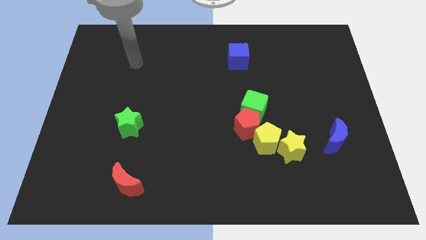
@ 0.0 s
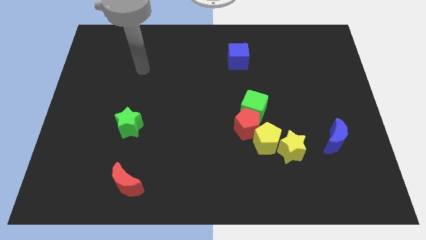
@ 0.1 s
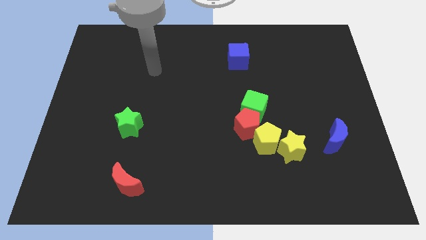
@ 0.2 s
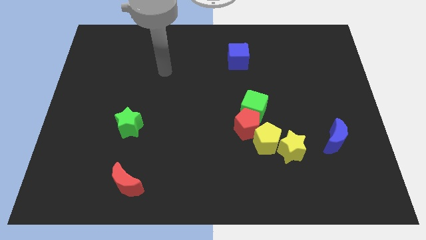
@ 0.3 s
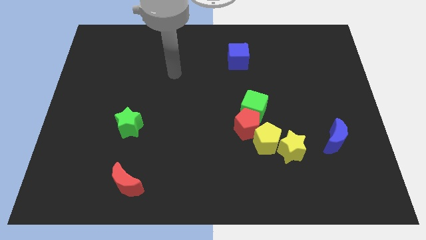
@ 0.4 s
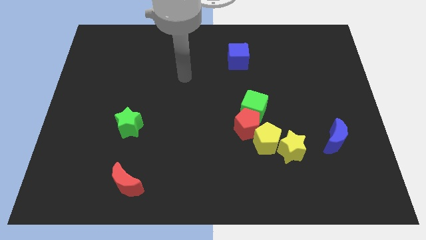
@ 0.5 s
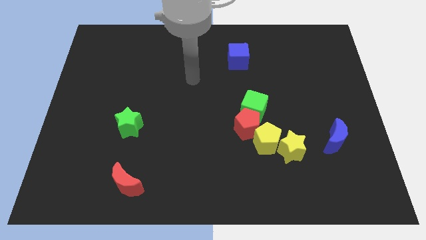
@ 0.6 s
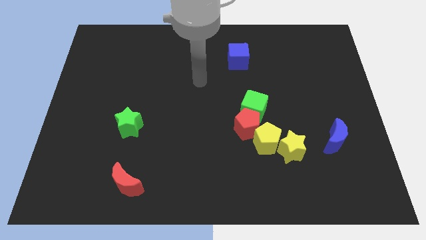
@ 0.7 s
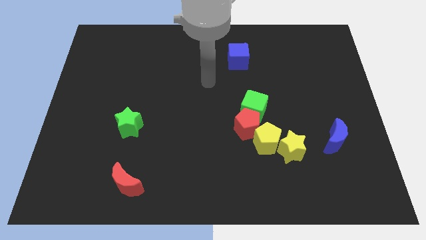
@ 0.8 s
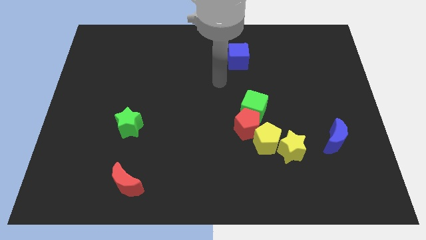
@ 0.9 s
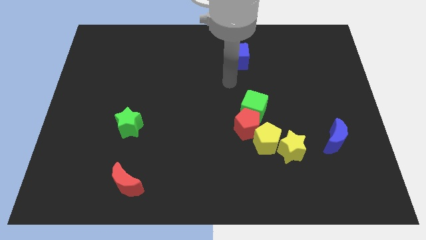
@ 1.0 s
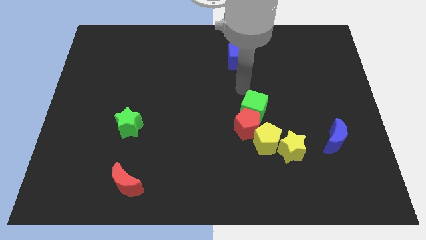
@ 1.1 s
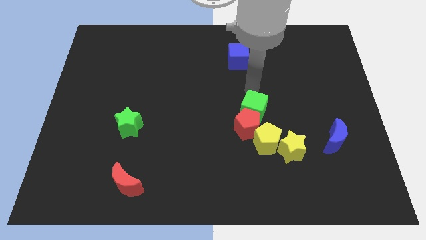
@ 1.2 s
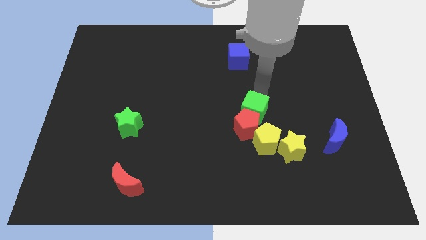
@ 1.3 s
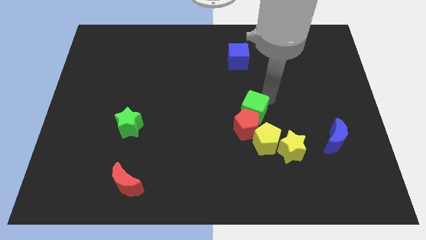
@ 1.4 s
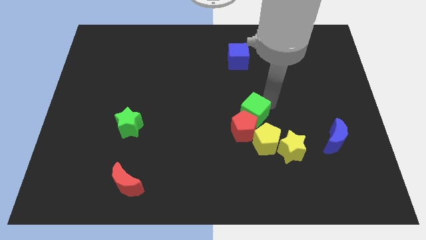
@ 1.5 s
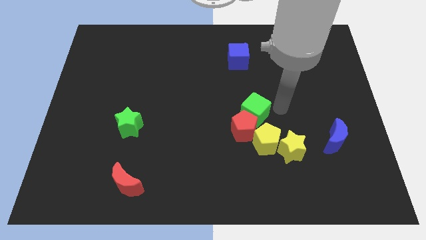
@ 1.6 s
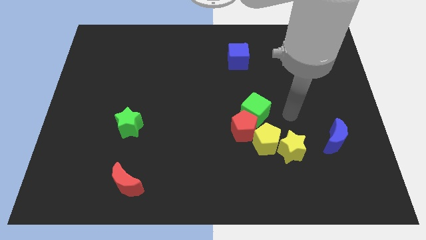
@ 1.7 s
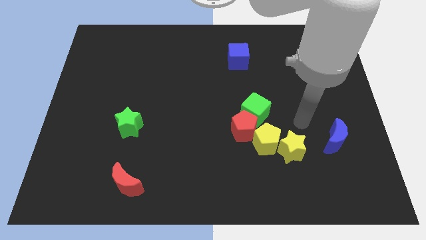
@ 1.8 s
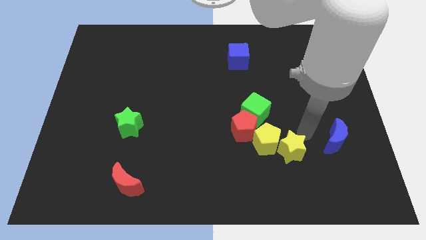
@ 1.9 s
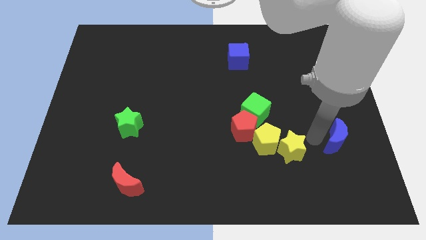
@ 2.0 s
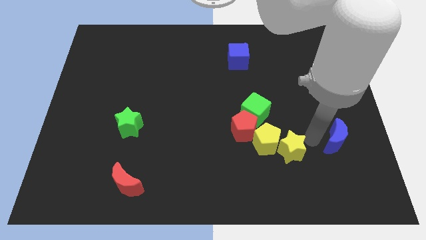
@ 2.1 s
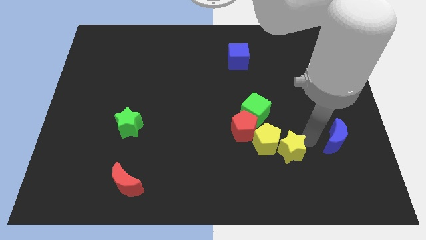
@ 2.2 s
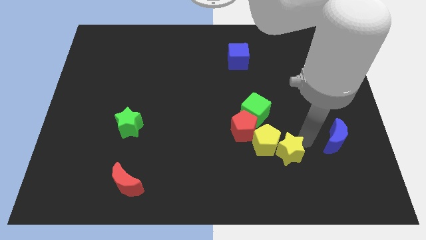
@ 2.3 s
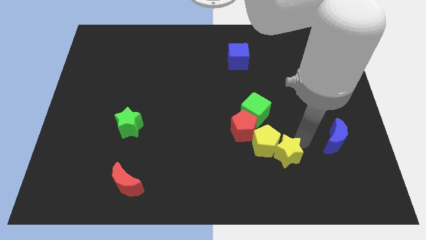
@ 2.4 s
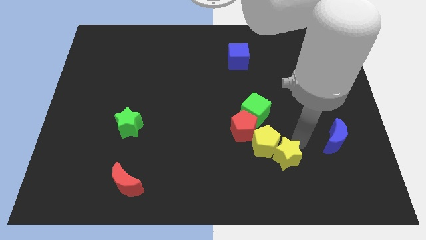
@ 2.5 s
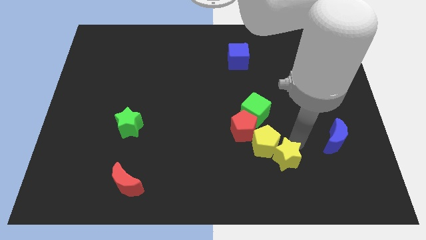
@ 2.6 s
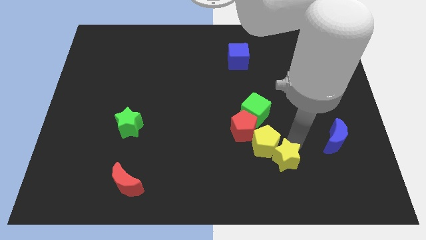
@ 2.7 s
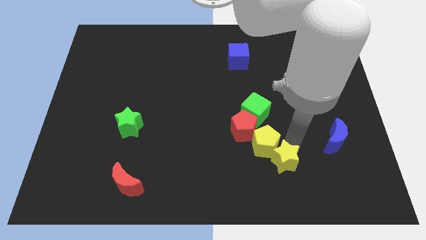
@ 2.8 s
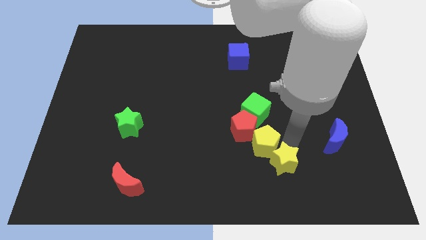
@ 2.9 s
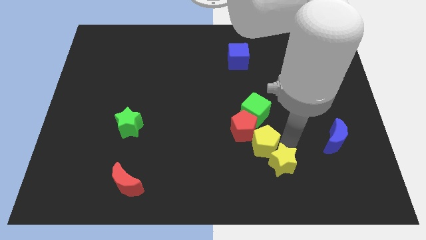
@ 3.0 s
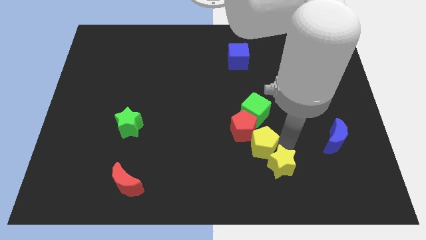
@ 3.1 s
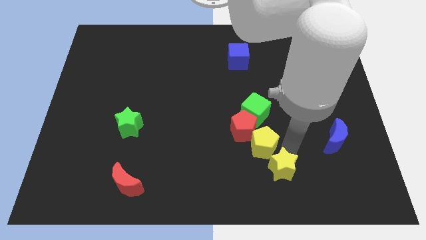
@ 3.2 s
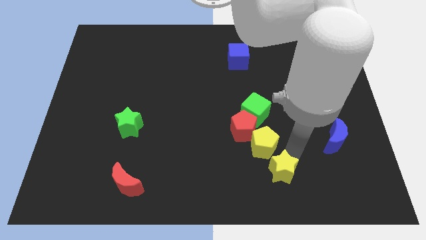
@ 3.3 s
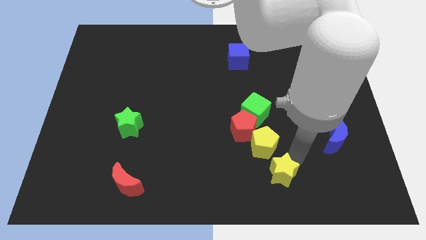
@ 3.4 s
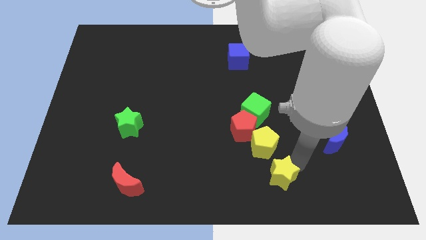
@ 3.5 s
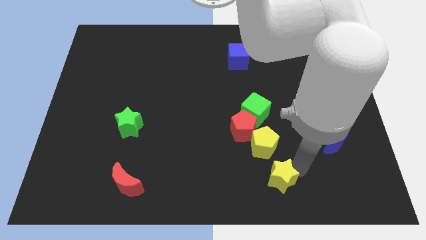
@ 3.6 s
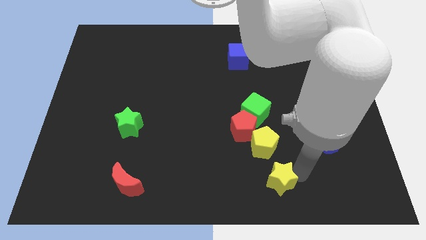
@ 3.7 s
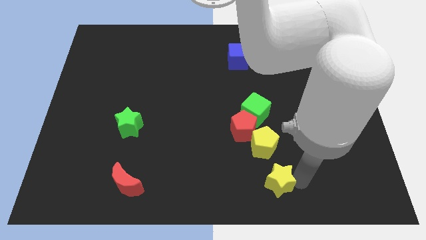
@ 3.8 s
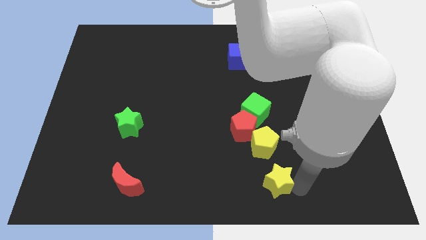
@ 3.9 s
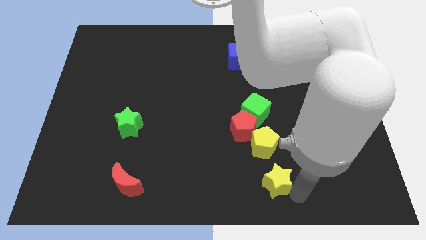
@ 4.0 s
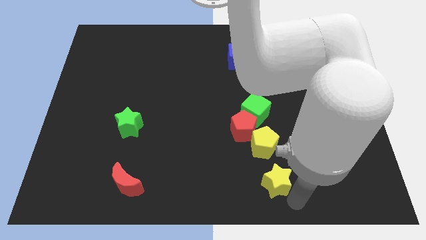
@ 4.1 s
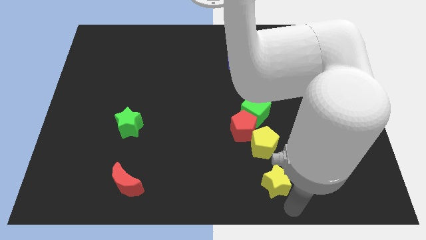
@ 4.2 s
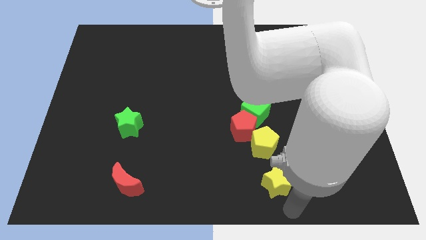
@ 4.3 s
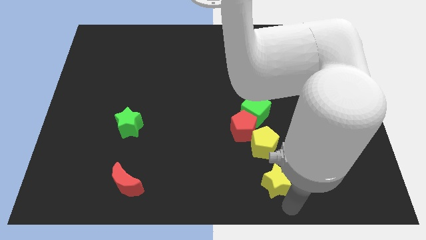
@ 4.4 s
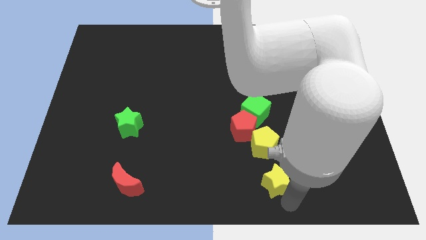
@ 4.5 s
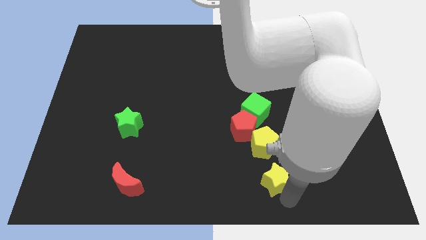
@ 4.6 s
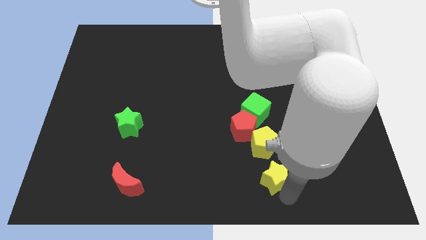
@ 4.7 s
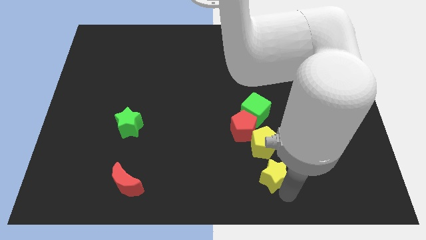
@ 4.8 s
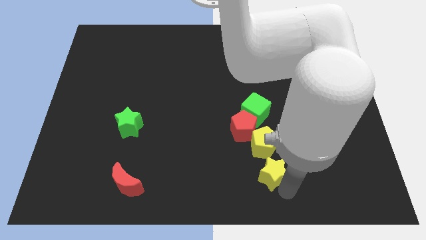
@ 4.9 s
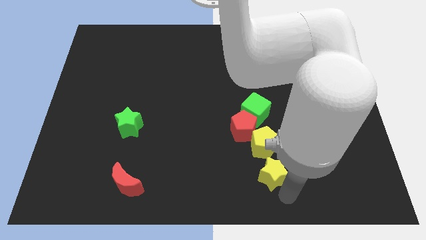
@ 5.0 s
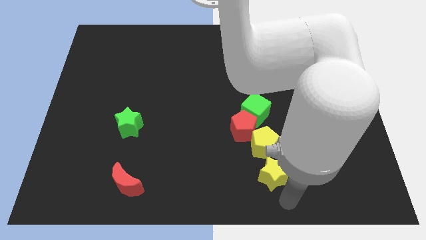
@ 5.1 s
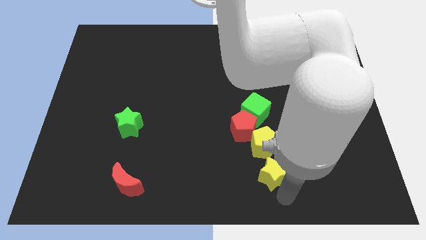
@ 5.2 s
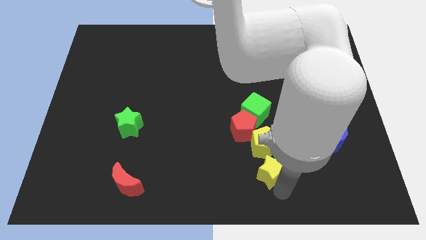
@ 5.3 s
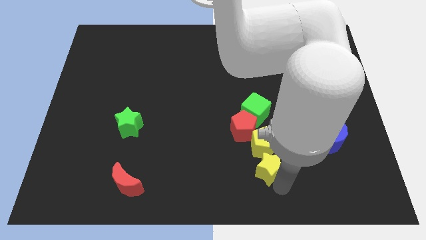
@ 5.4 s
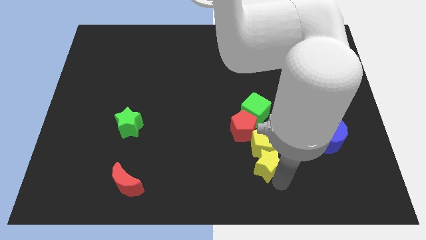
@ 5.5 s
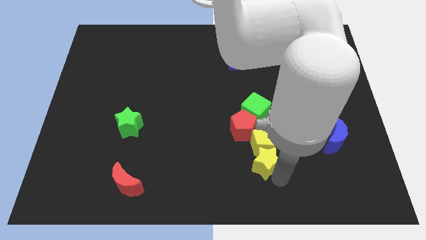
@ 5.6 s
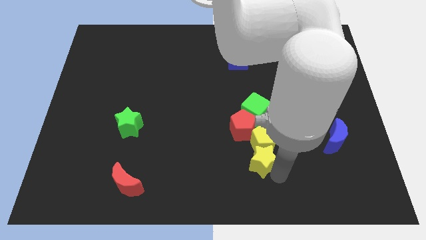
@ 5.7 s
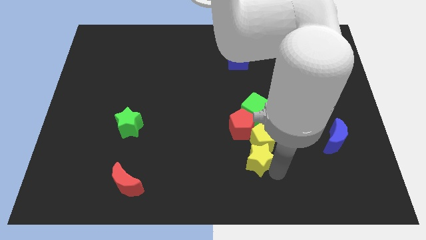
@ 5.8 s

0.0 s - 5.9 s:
slide the yellow star left a bit

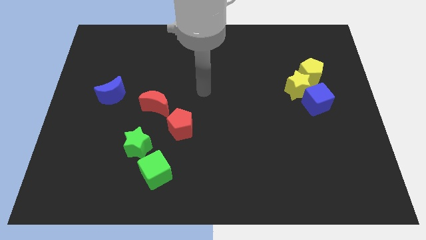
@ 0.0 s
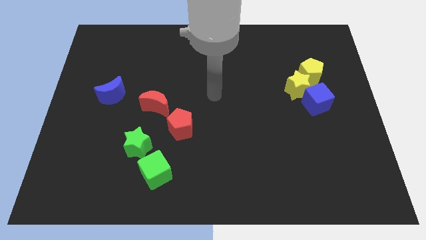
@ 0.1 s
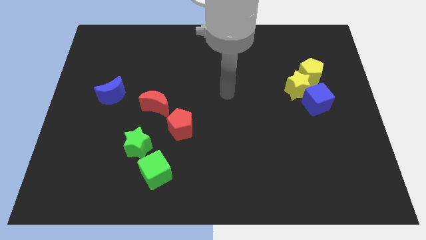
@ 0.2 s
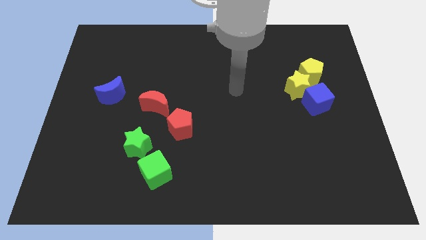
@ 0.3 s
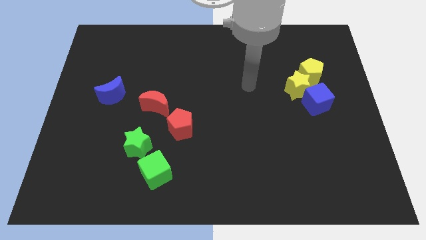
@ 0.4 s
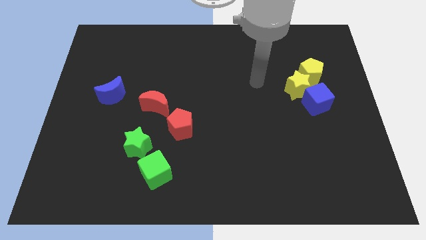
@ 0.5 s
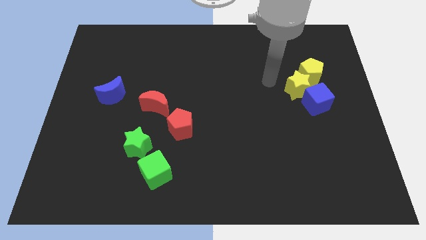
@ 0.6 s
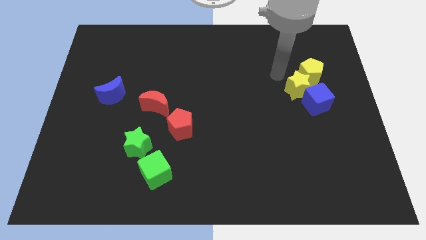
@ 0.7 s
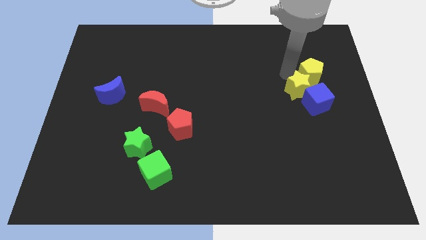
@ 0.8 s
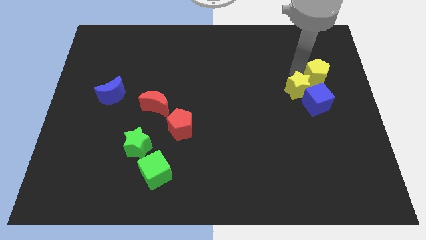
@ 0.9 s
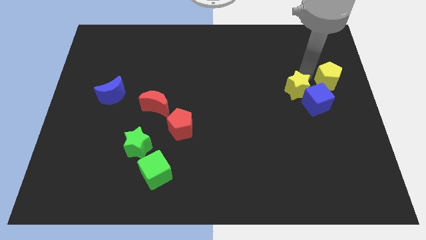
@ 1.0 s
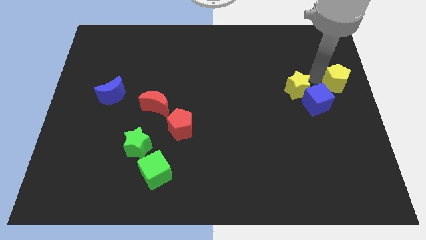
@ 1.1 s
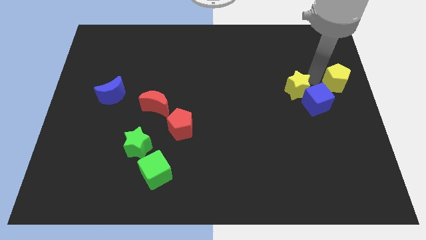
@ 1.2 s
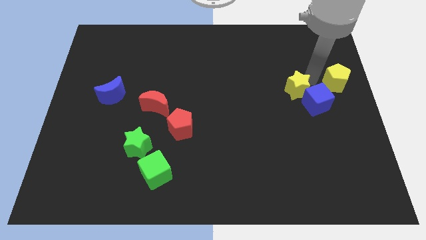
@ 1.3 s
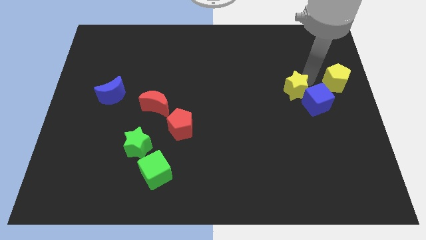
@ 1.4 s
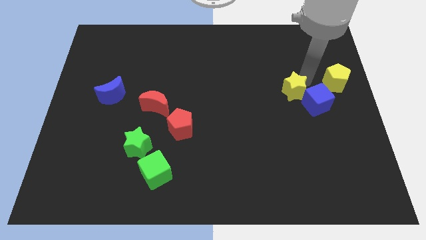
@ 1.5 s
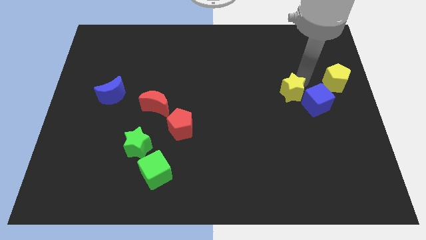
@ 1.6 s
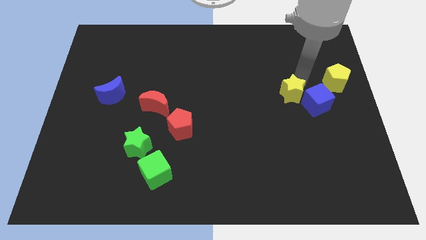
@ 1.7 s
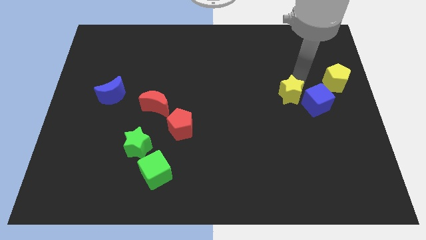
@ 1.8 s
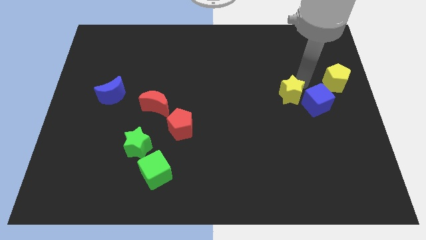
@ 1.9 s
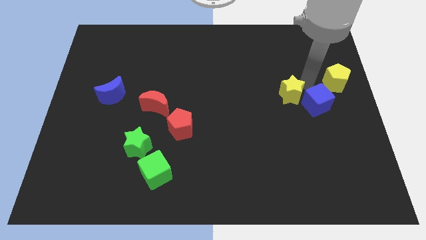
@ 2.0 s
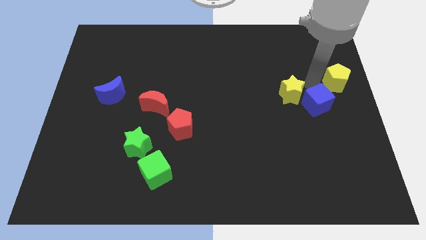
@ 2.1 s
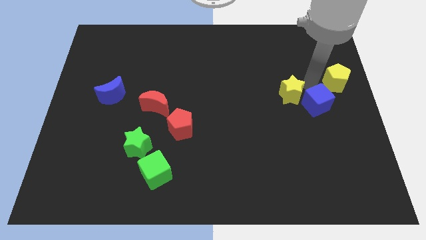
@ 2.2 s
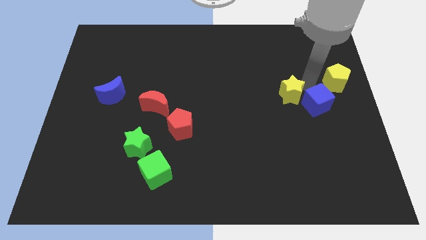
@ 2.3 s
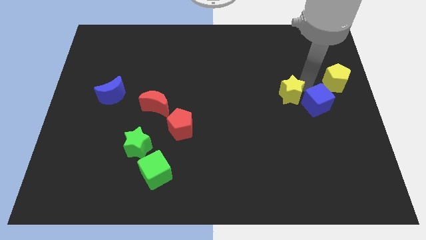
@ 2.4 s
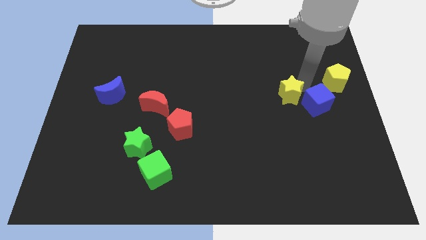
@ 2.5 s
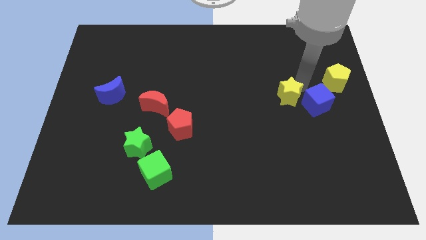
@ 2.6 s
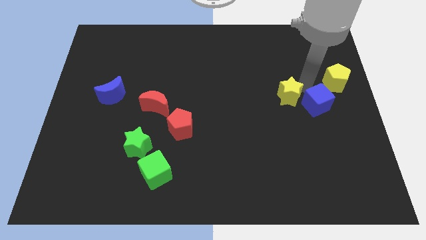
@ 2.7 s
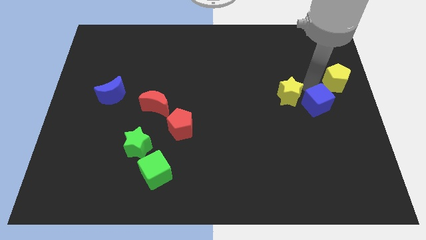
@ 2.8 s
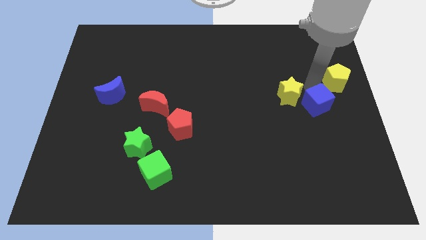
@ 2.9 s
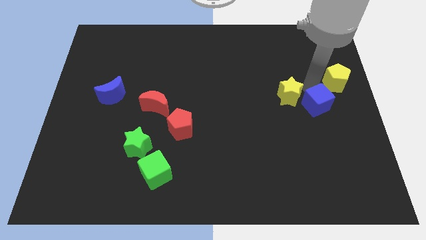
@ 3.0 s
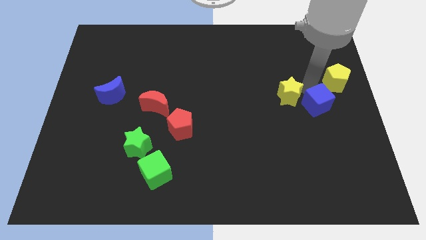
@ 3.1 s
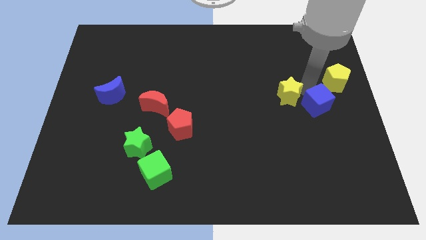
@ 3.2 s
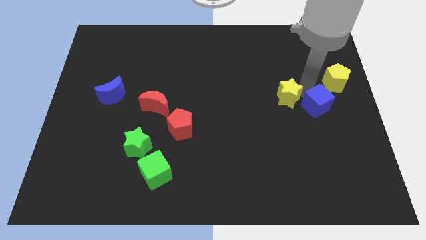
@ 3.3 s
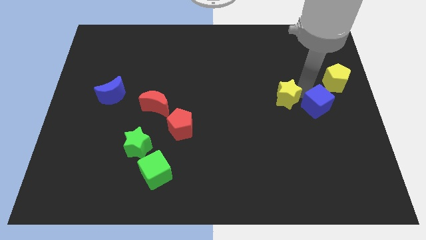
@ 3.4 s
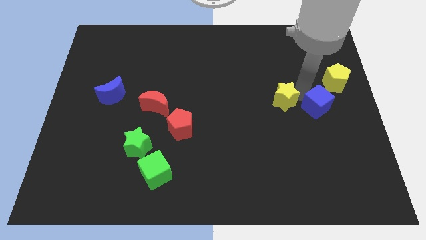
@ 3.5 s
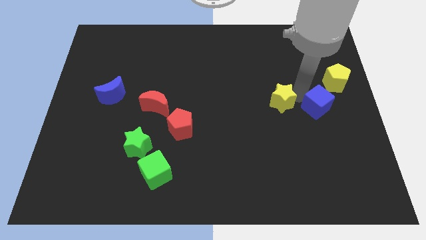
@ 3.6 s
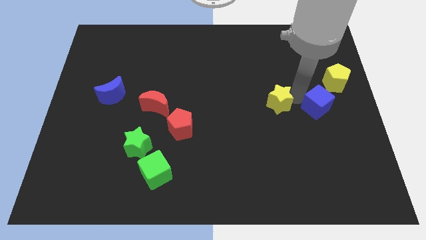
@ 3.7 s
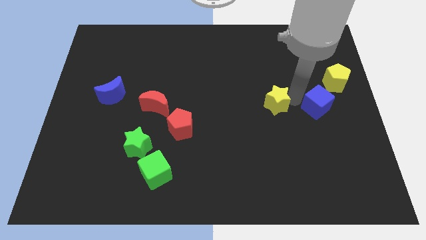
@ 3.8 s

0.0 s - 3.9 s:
slightly slide the yellow star downwards and to the left diagonally
